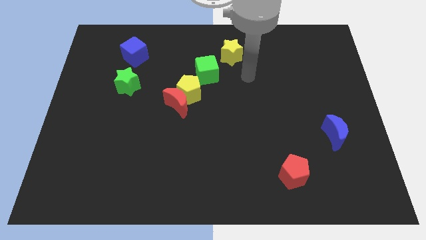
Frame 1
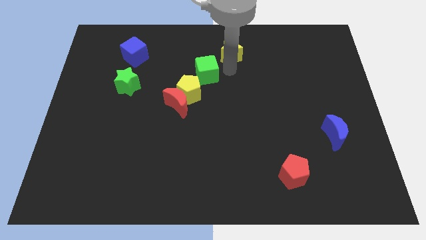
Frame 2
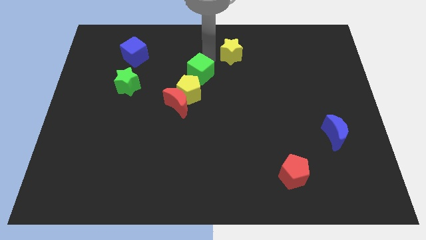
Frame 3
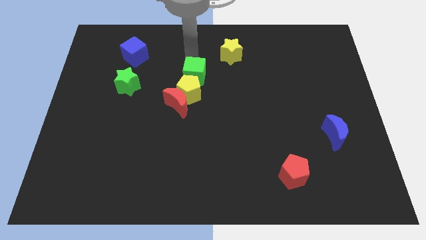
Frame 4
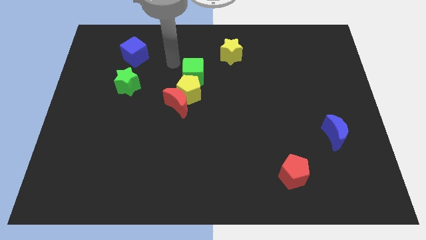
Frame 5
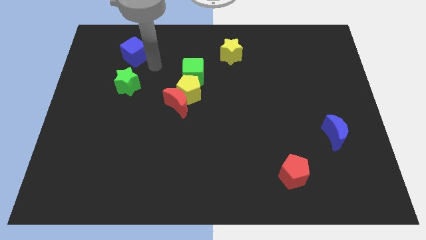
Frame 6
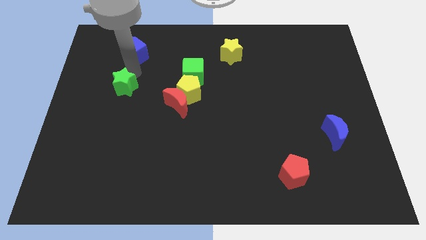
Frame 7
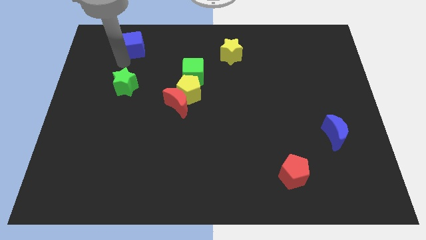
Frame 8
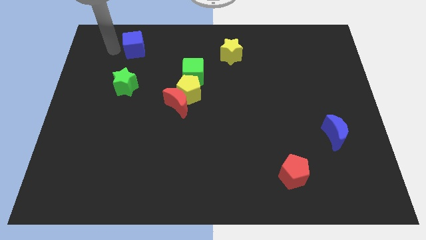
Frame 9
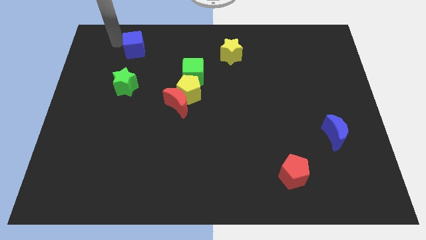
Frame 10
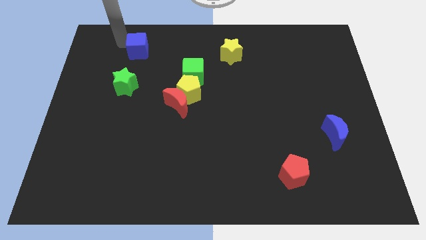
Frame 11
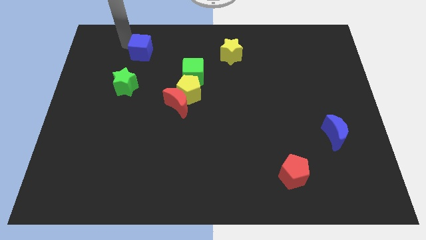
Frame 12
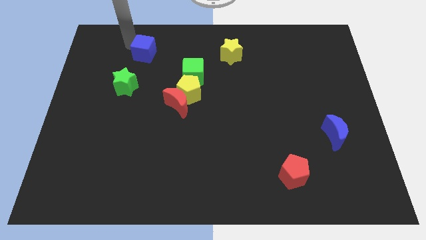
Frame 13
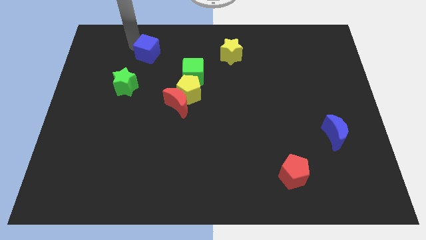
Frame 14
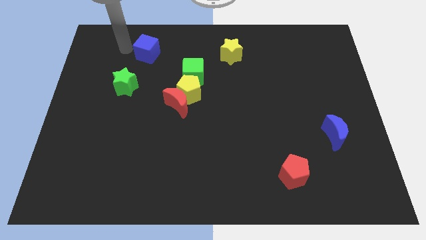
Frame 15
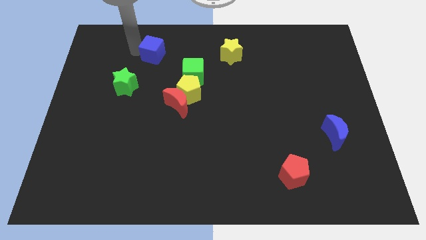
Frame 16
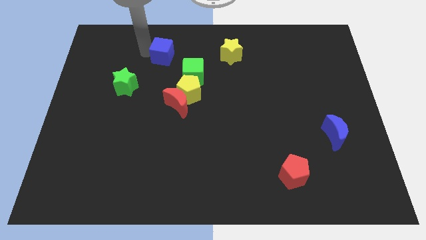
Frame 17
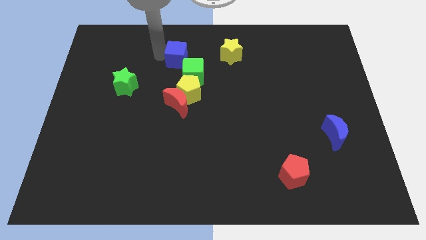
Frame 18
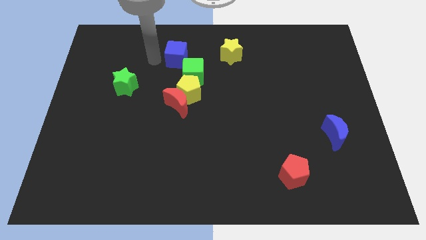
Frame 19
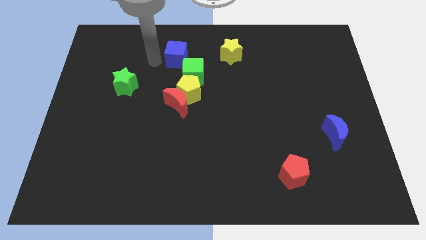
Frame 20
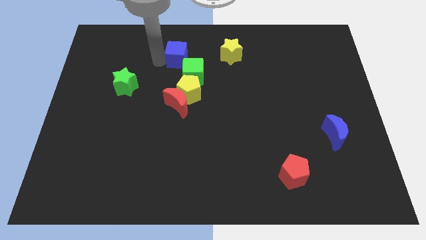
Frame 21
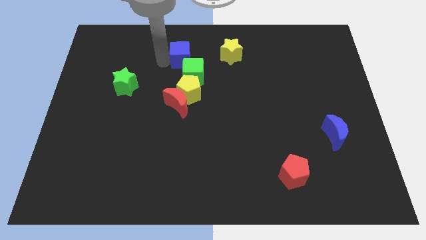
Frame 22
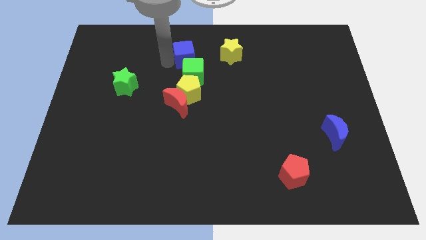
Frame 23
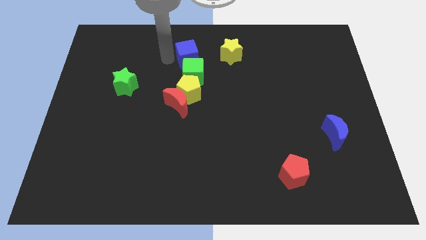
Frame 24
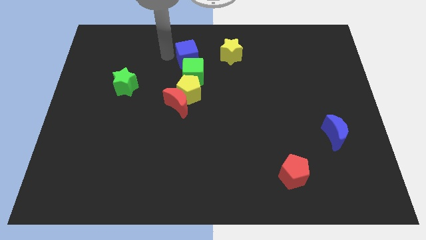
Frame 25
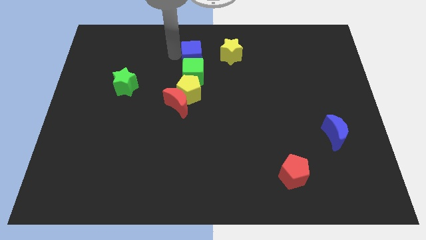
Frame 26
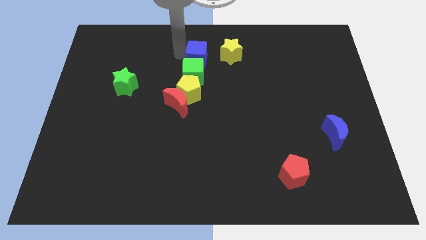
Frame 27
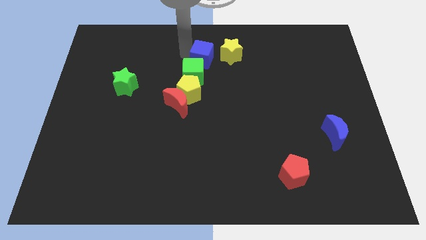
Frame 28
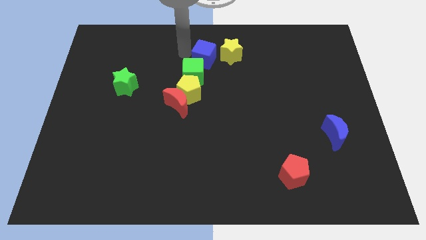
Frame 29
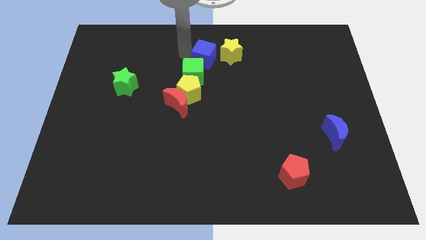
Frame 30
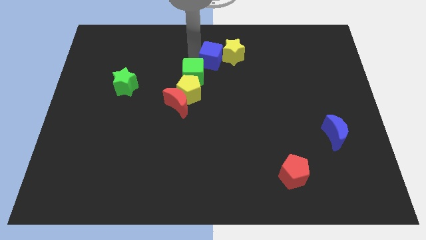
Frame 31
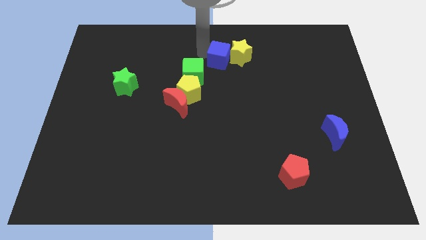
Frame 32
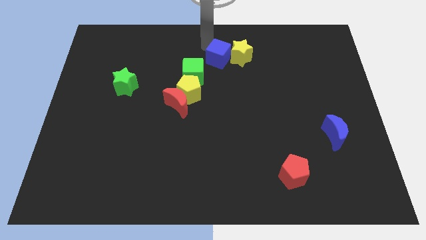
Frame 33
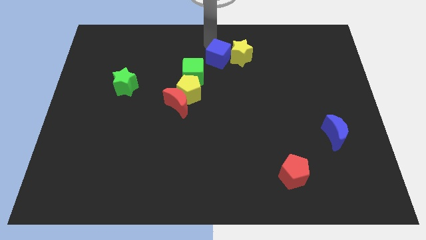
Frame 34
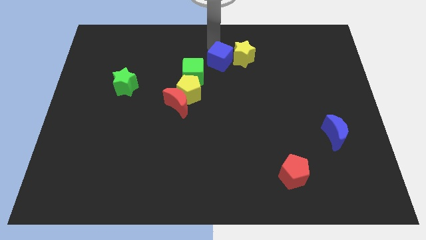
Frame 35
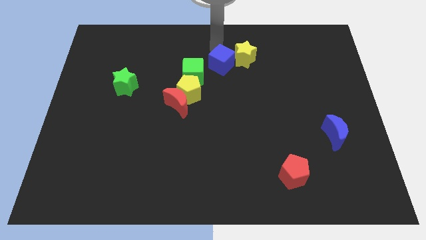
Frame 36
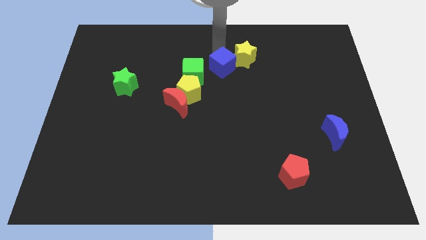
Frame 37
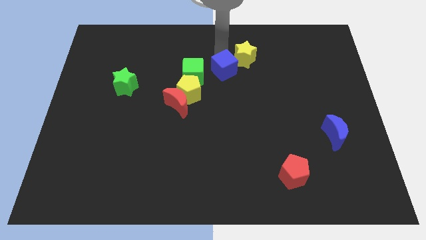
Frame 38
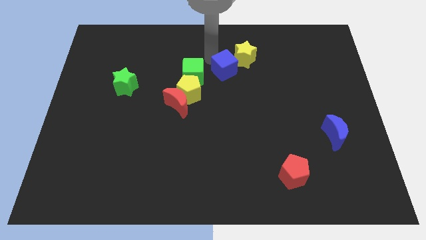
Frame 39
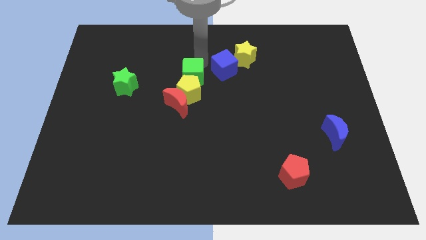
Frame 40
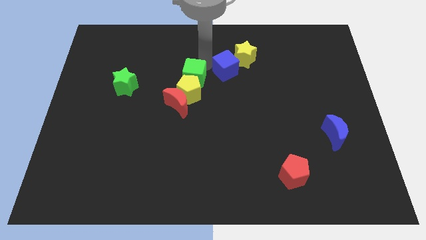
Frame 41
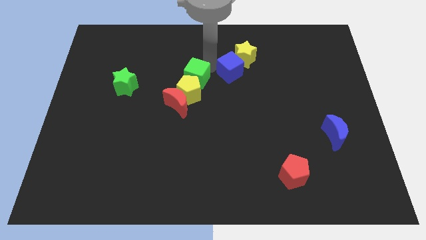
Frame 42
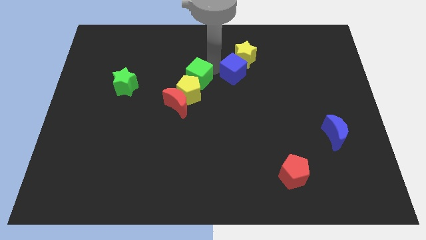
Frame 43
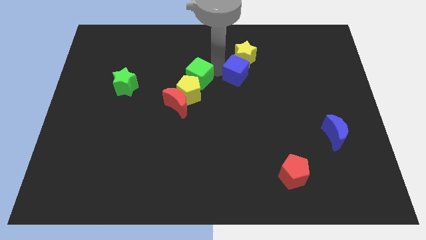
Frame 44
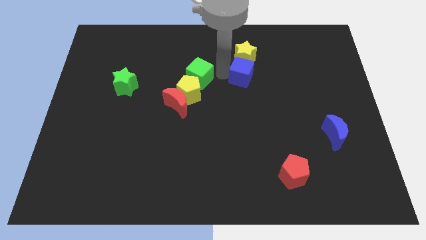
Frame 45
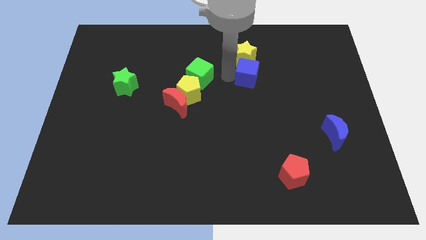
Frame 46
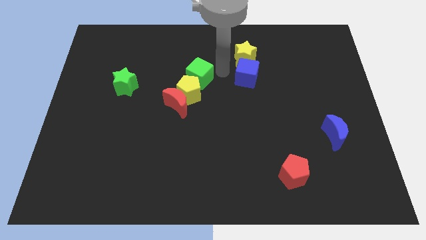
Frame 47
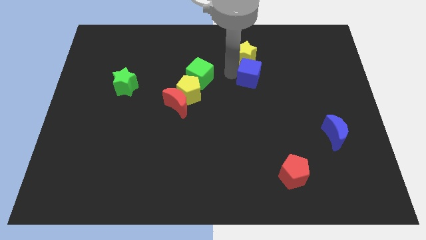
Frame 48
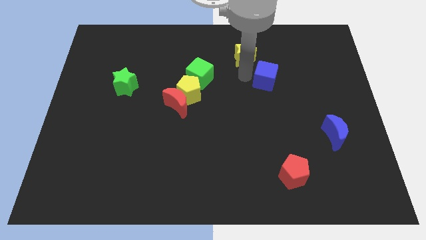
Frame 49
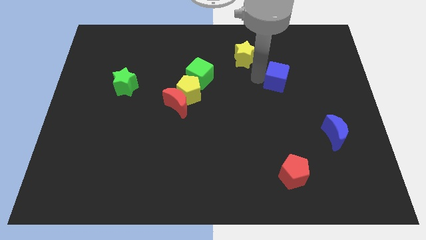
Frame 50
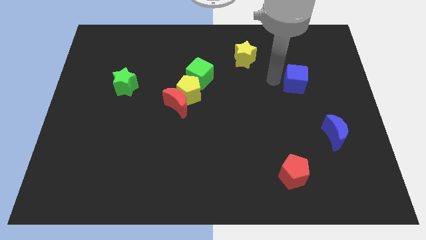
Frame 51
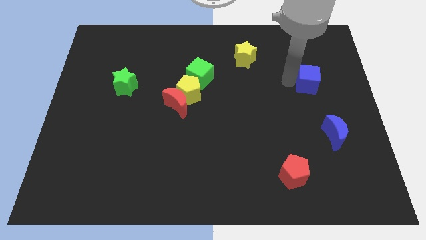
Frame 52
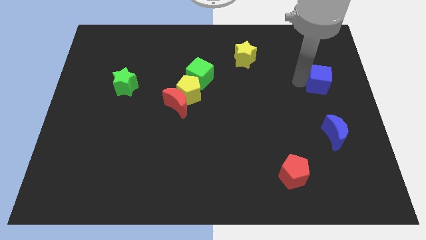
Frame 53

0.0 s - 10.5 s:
put the blue cube to the center right

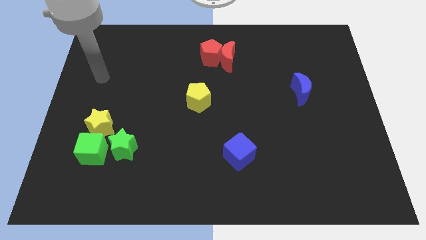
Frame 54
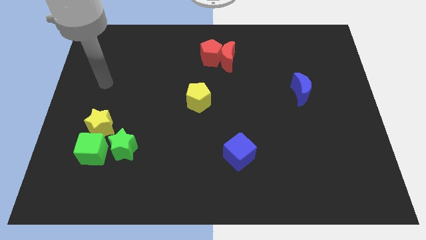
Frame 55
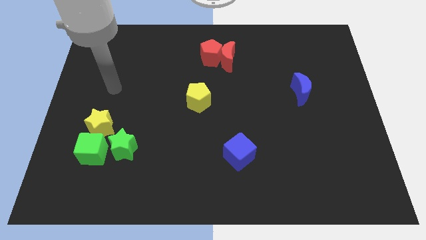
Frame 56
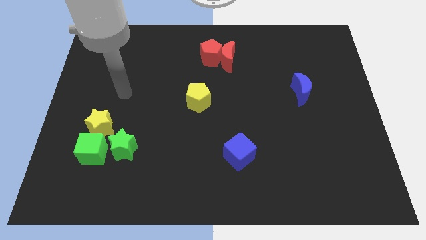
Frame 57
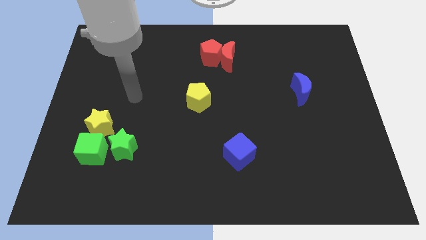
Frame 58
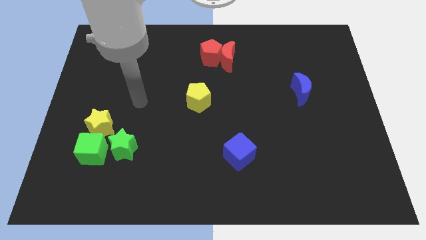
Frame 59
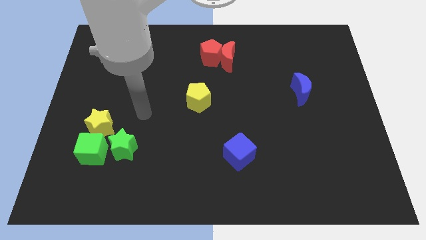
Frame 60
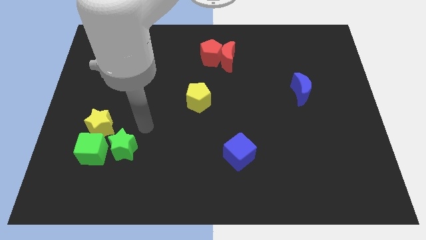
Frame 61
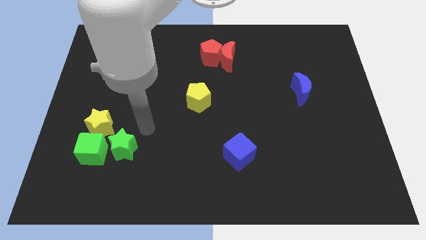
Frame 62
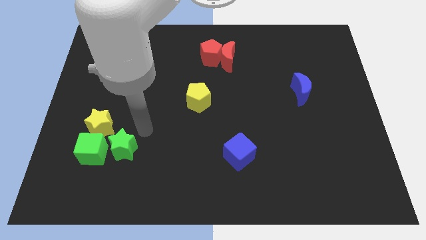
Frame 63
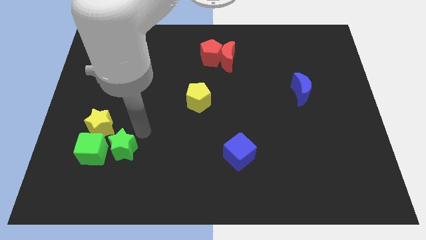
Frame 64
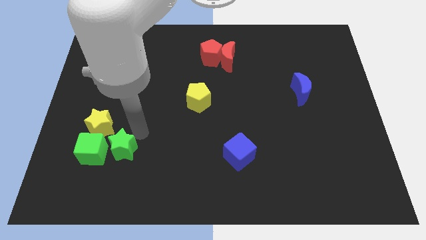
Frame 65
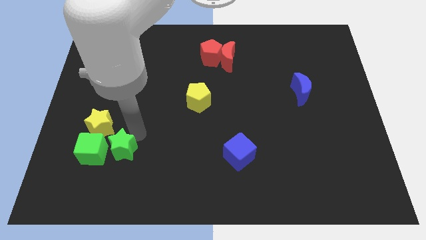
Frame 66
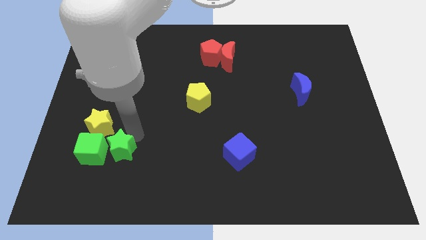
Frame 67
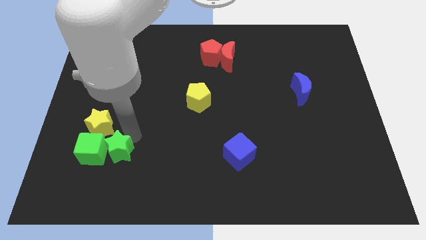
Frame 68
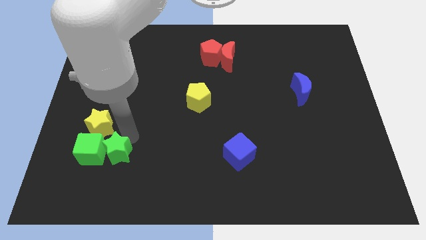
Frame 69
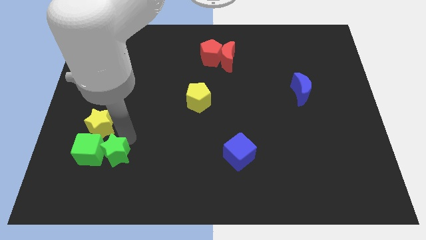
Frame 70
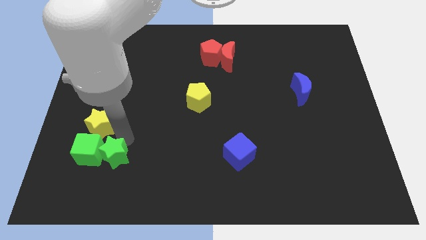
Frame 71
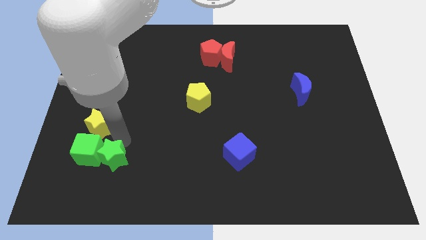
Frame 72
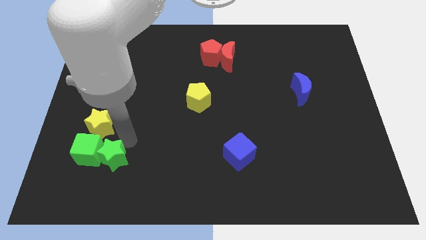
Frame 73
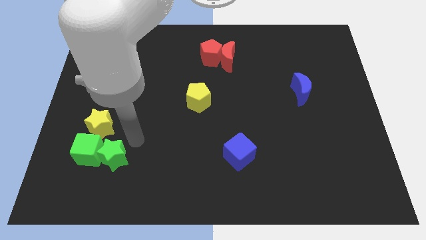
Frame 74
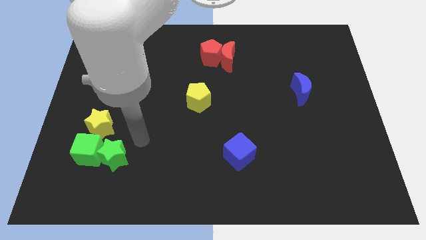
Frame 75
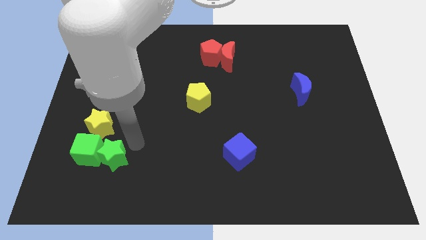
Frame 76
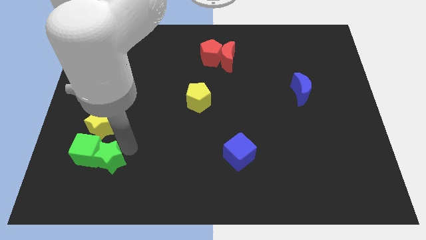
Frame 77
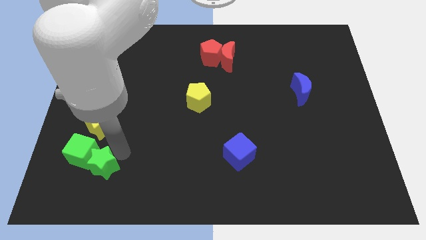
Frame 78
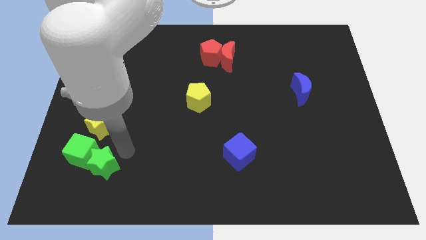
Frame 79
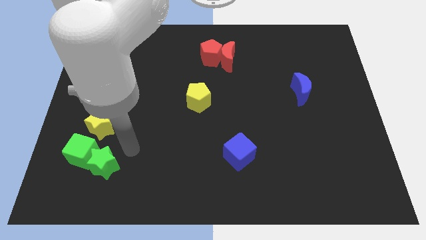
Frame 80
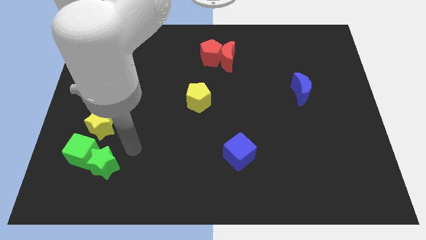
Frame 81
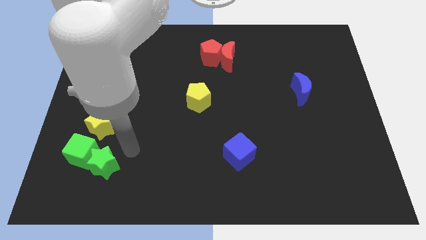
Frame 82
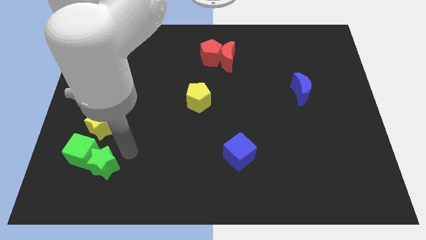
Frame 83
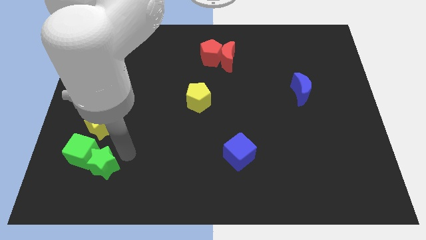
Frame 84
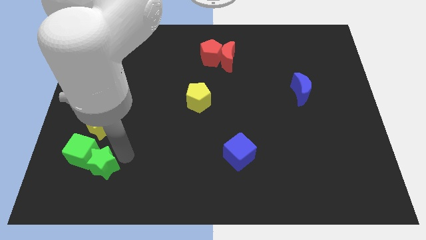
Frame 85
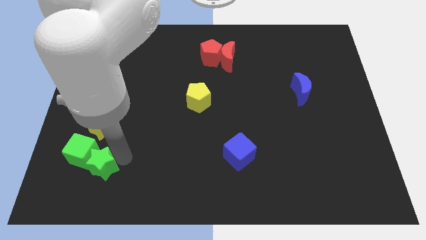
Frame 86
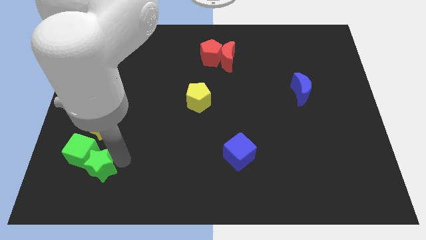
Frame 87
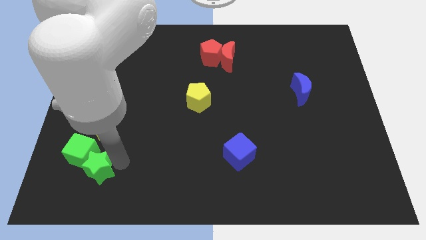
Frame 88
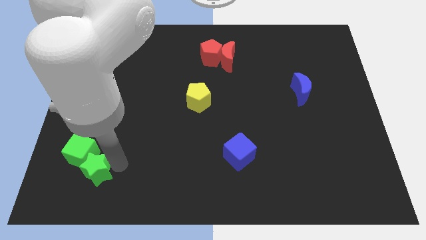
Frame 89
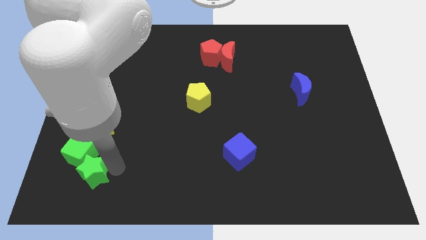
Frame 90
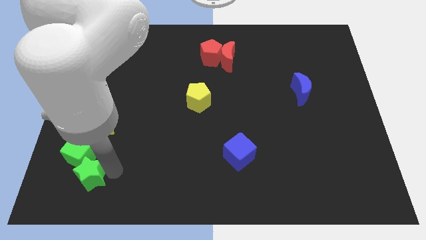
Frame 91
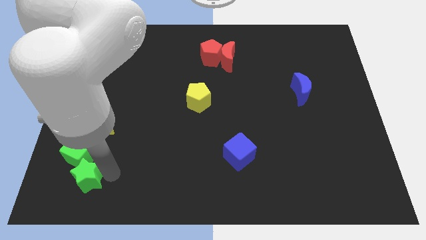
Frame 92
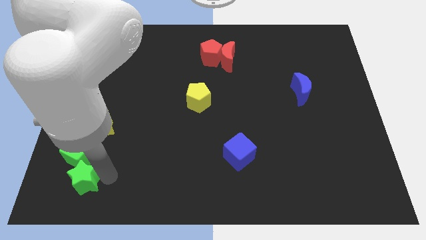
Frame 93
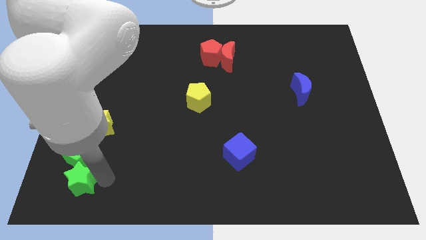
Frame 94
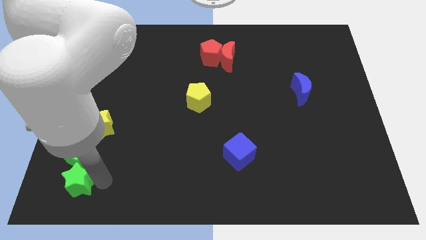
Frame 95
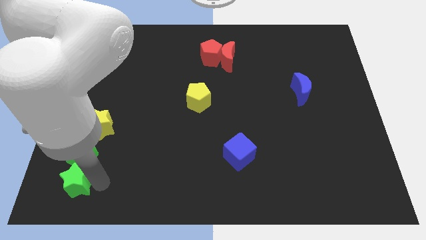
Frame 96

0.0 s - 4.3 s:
put the green star to the bottom left
